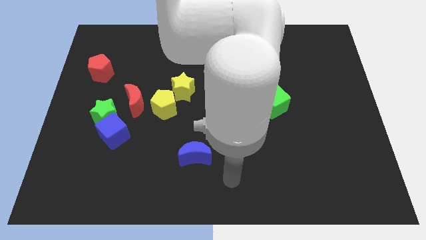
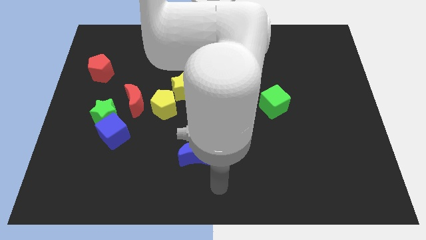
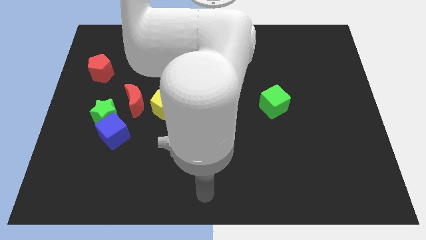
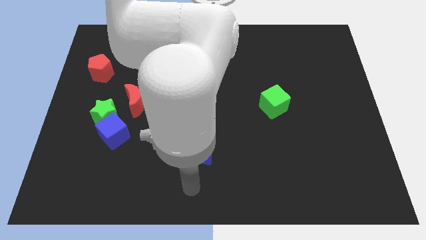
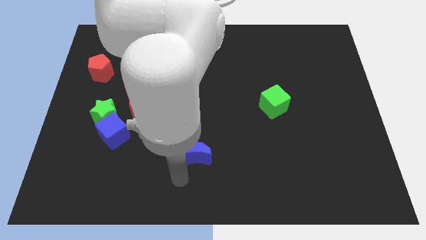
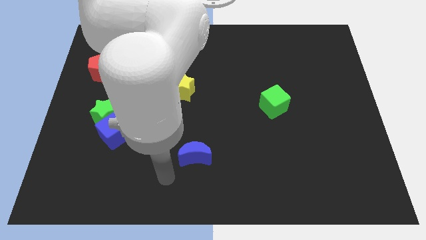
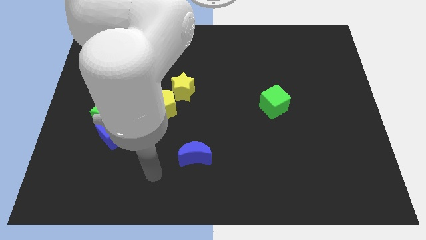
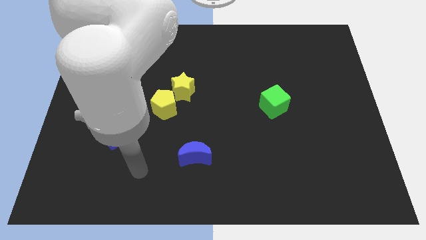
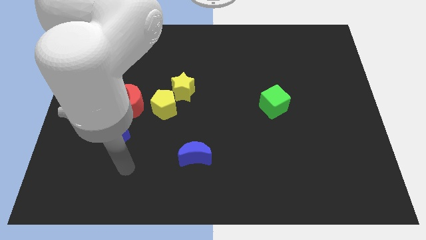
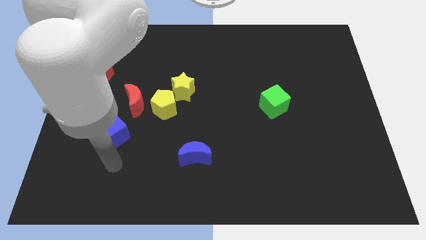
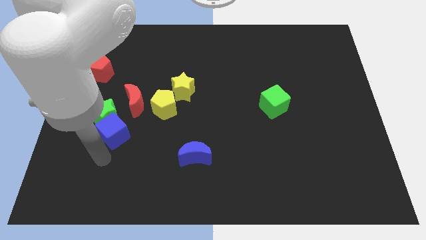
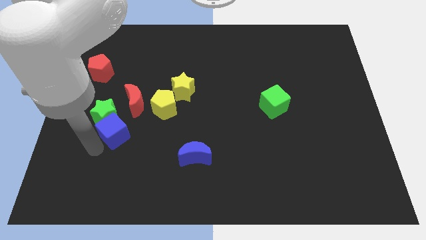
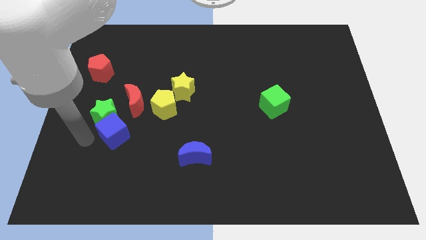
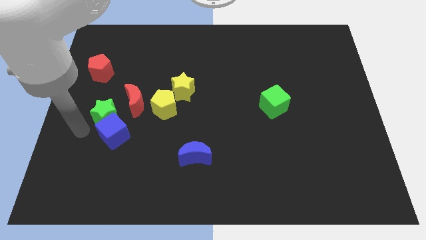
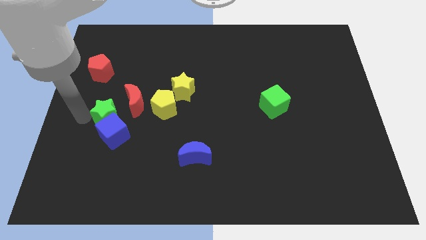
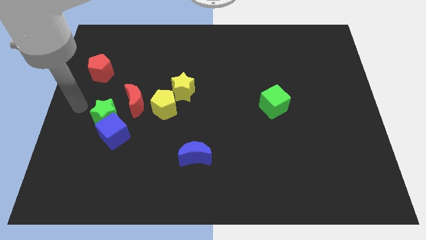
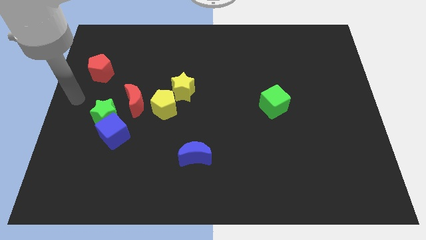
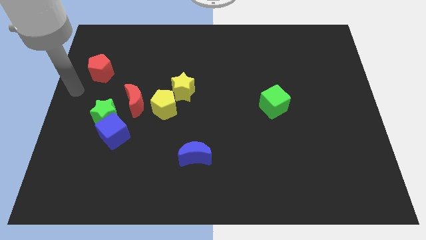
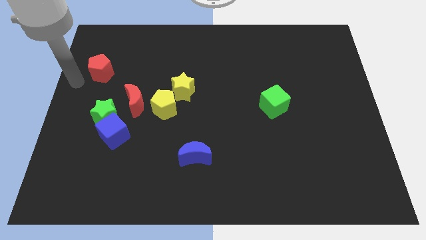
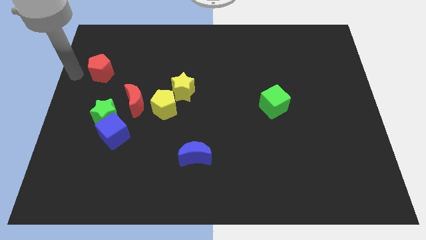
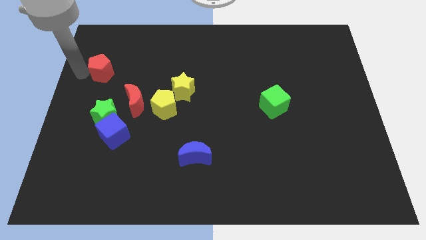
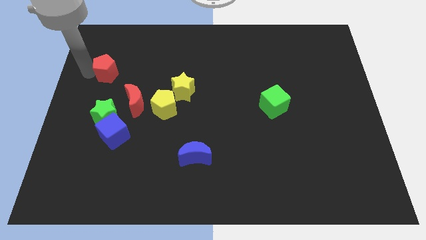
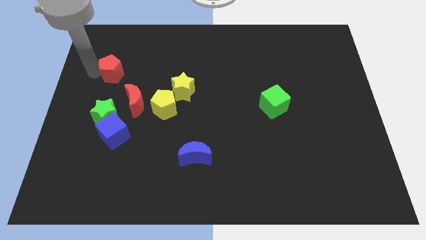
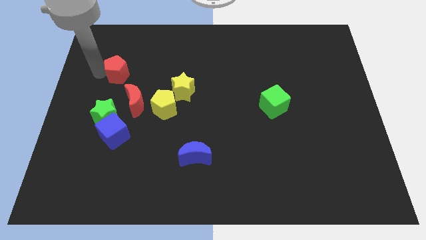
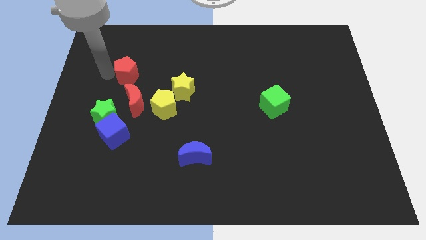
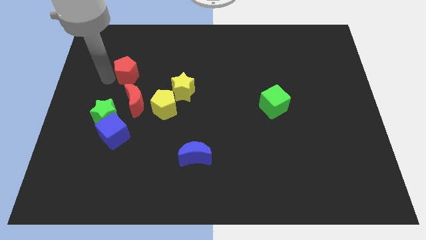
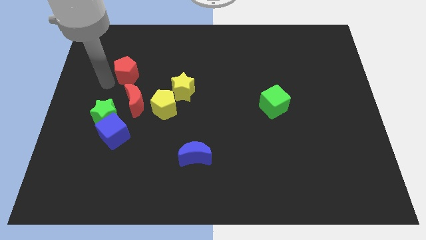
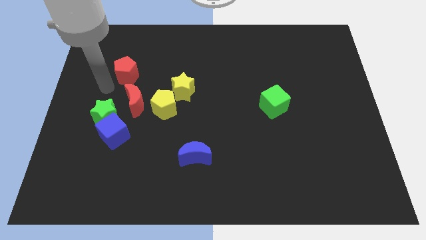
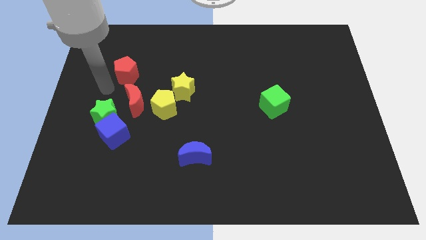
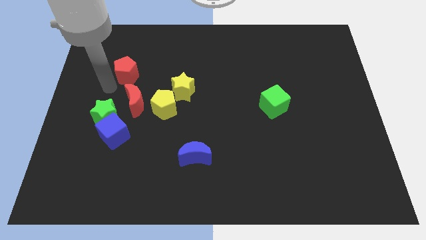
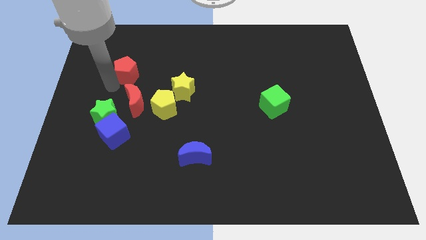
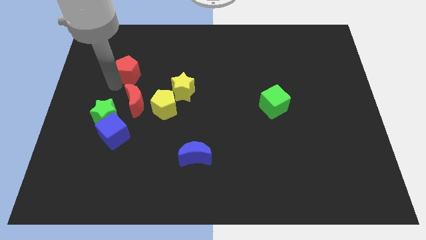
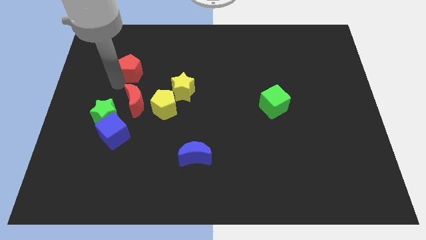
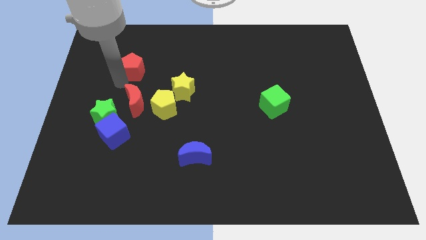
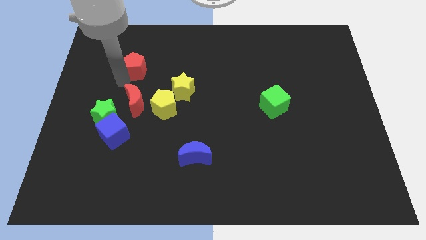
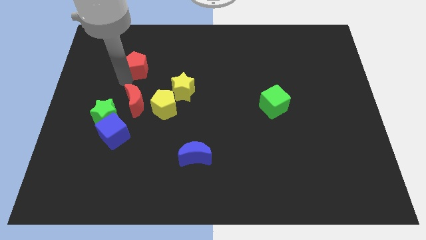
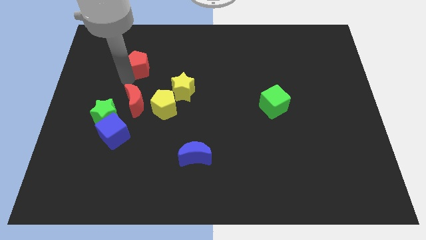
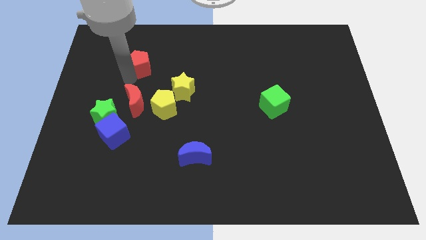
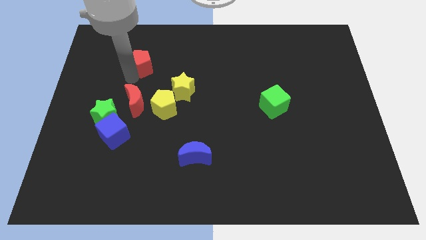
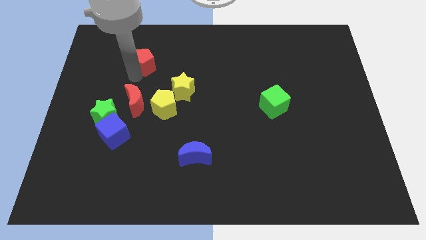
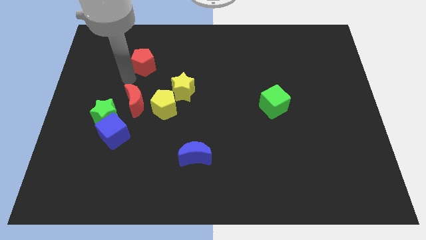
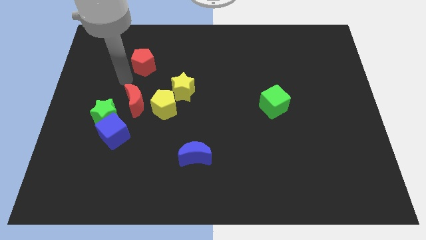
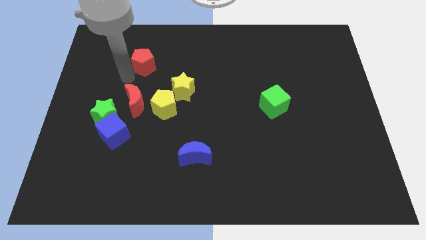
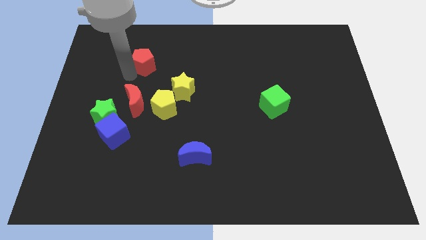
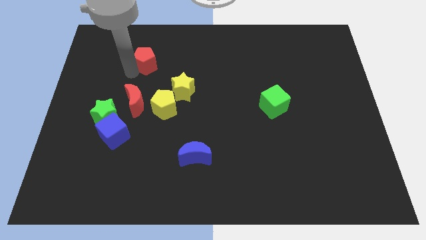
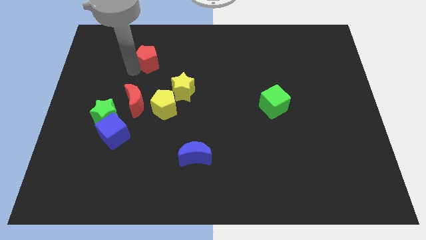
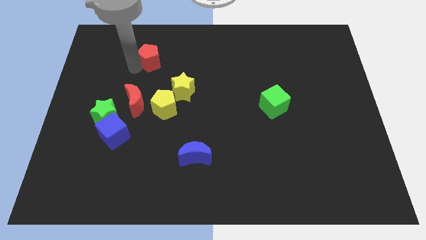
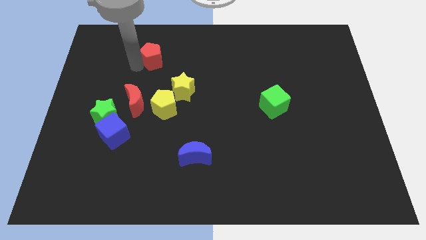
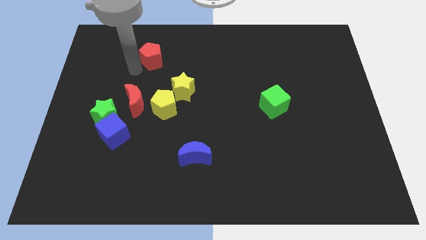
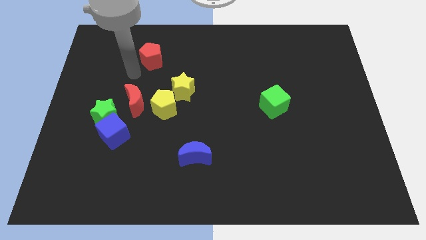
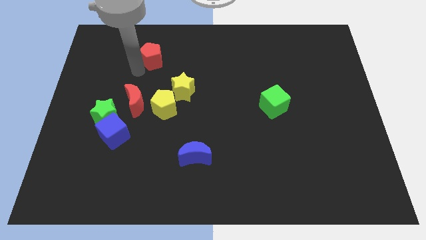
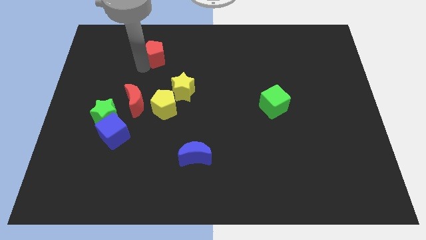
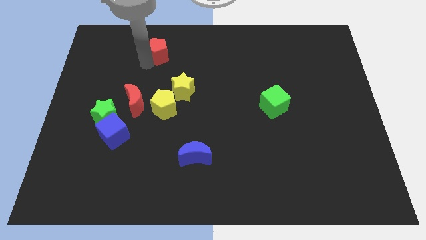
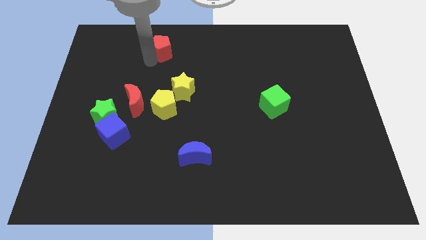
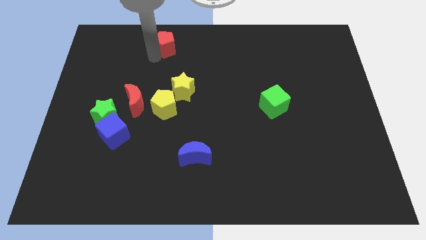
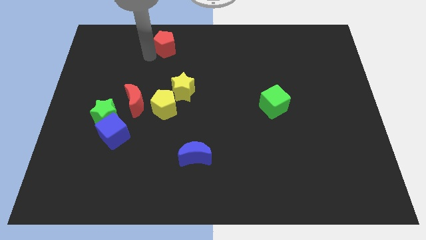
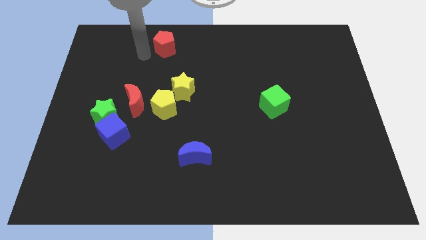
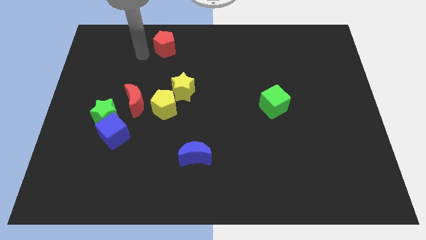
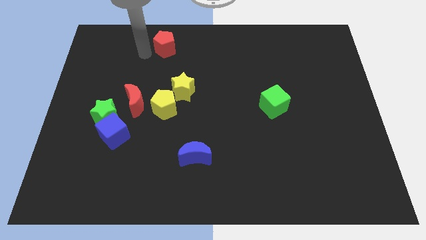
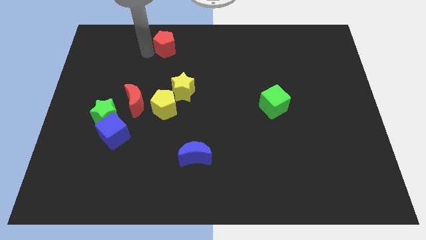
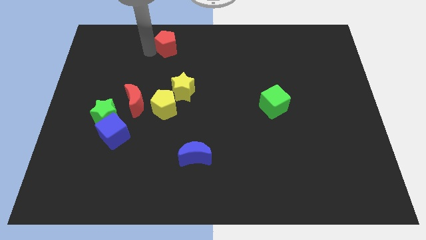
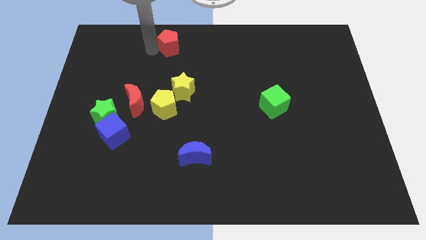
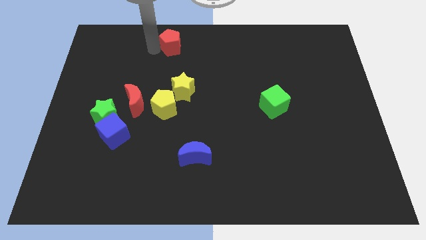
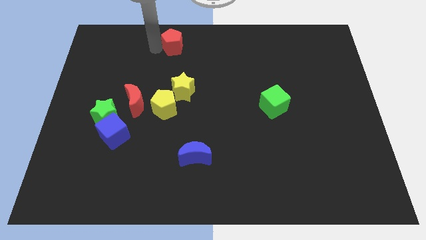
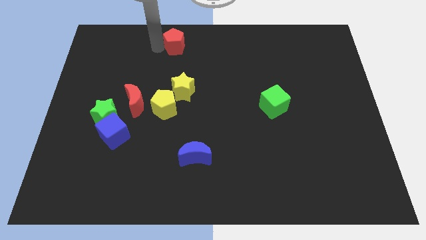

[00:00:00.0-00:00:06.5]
move the red pentagon to the top

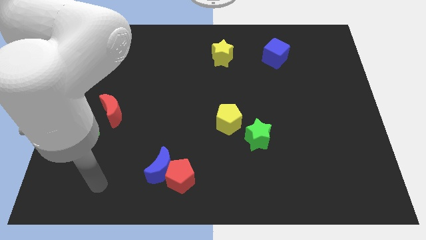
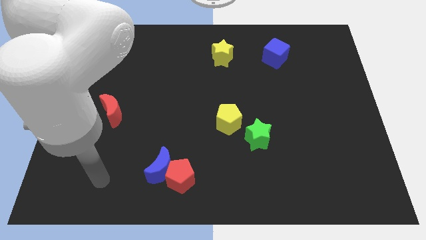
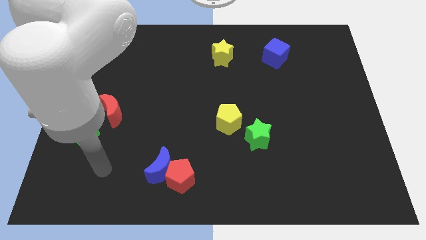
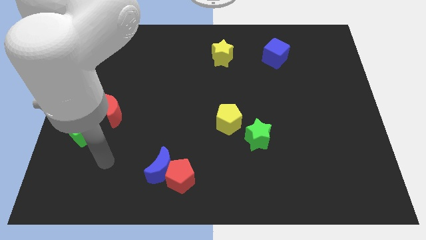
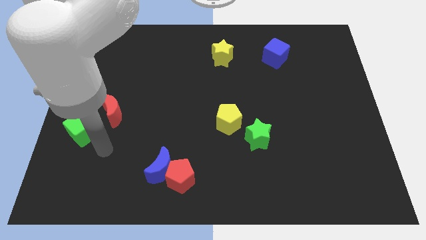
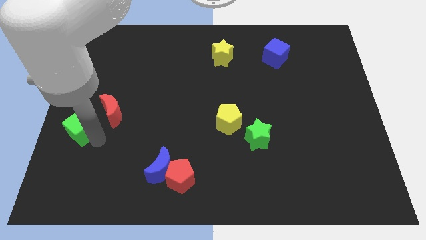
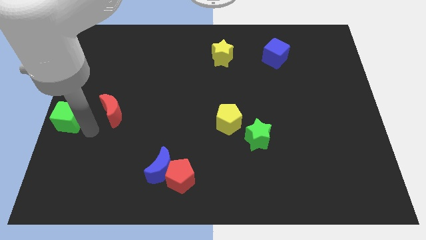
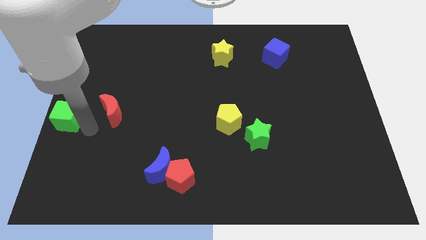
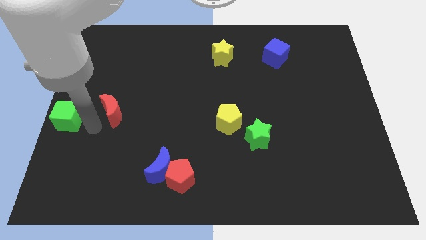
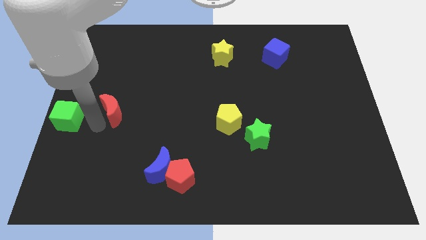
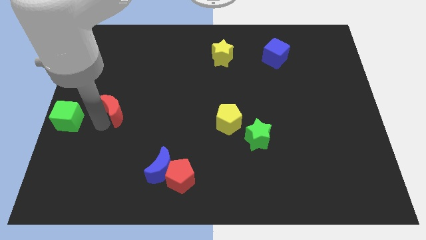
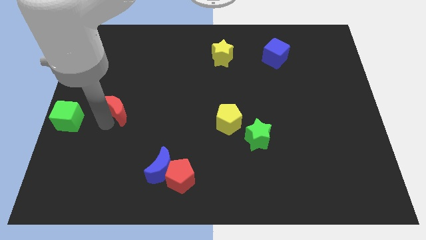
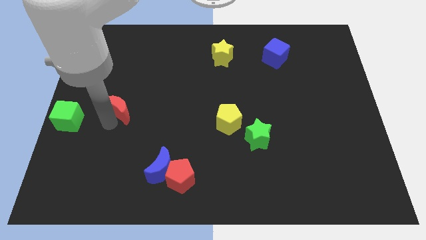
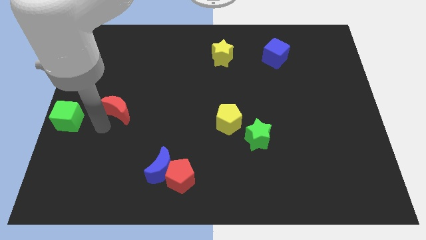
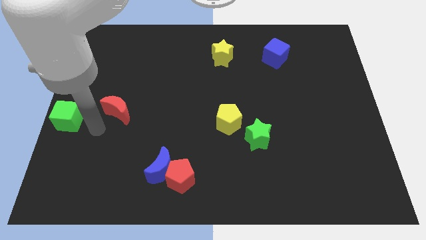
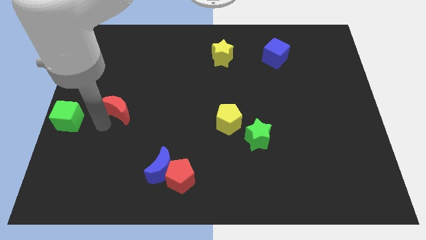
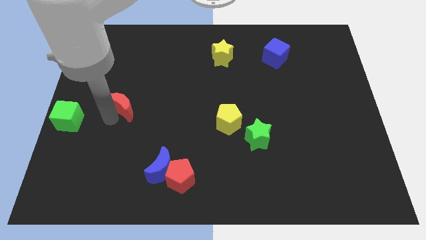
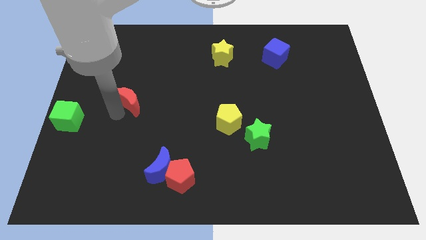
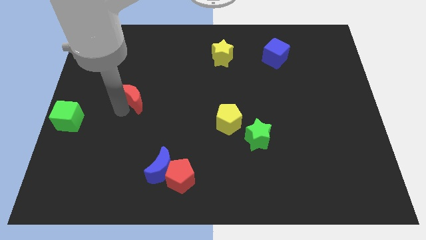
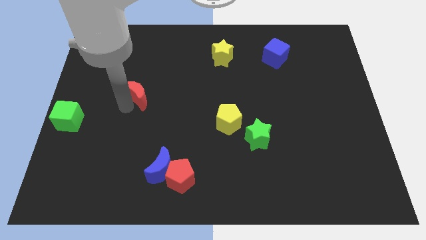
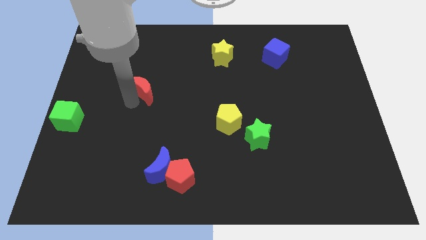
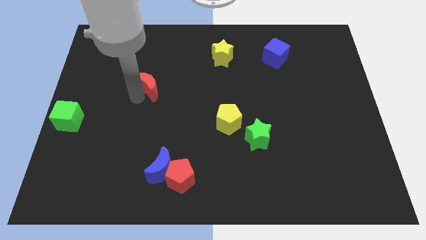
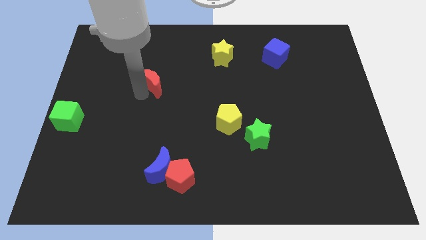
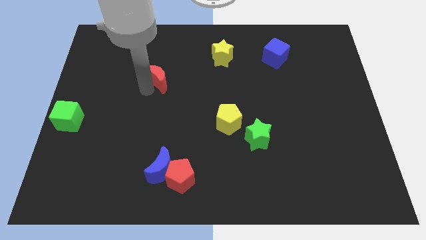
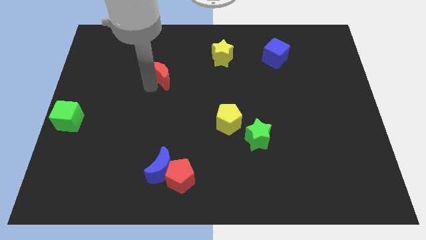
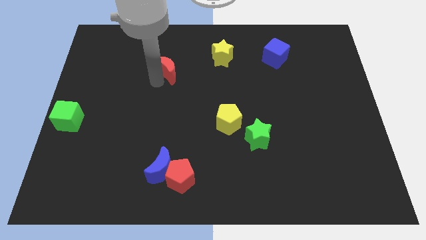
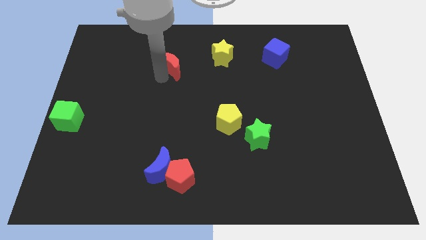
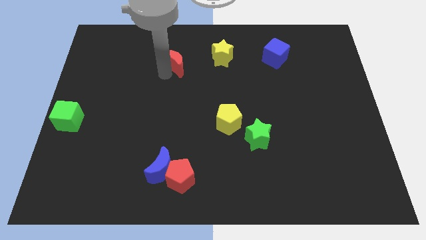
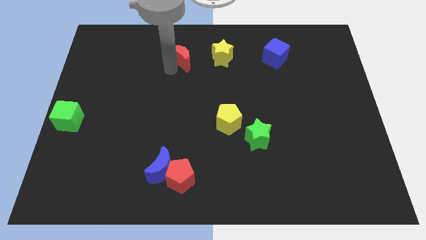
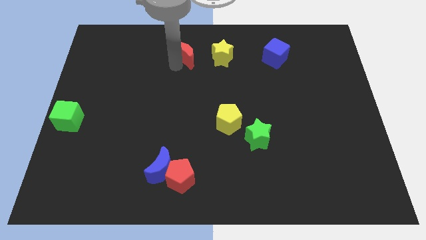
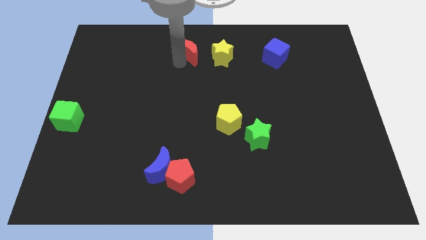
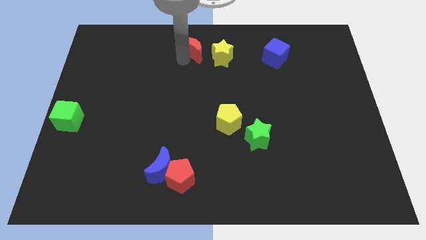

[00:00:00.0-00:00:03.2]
slide the red moon to the top side
